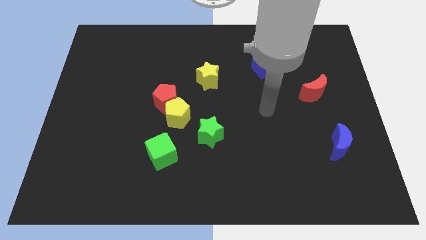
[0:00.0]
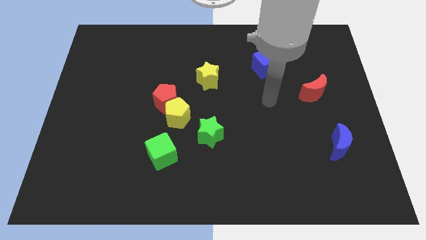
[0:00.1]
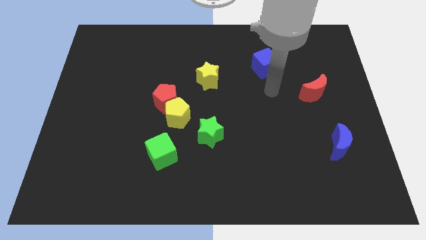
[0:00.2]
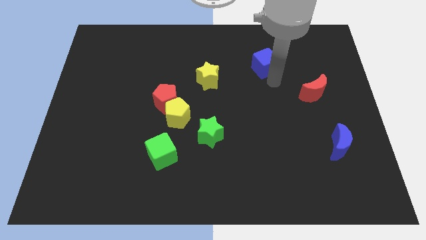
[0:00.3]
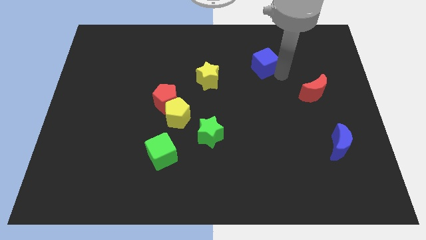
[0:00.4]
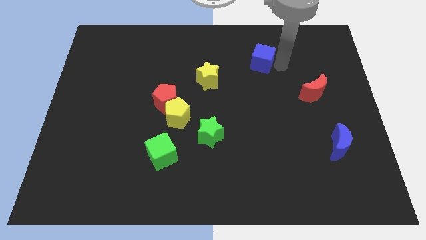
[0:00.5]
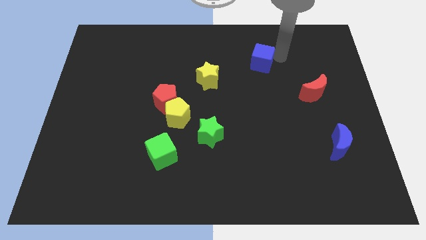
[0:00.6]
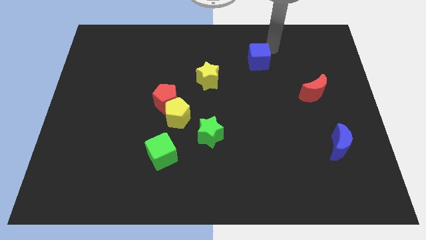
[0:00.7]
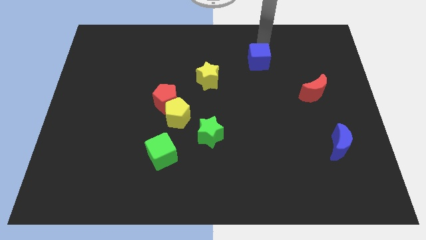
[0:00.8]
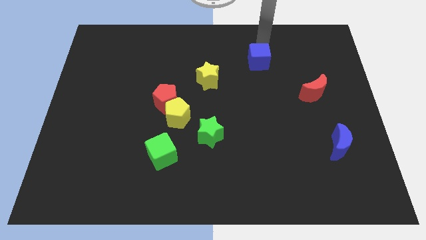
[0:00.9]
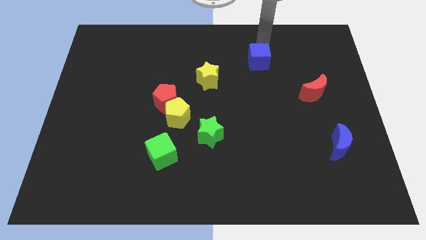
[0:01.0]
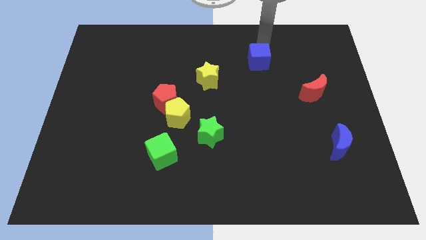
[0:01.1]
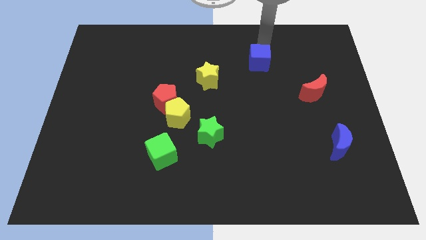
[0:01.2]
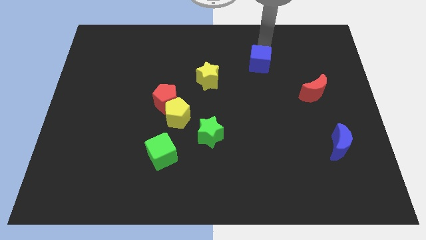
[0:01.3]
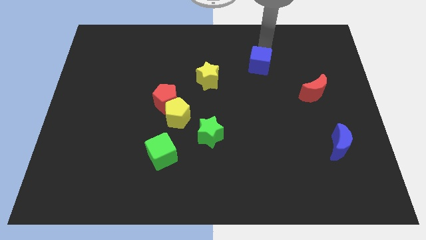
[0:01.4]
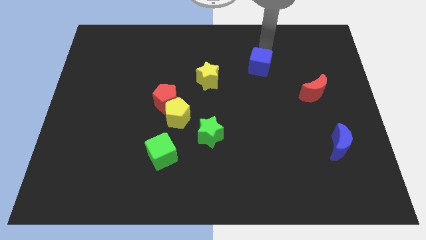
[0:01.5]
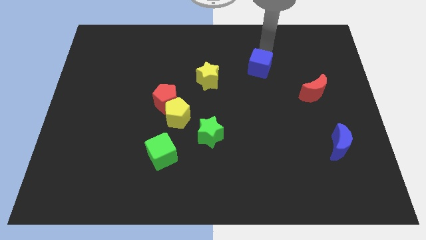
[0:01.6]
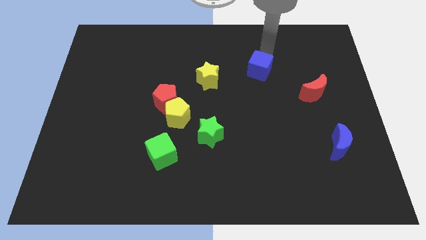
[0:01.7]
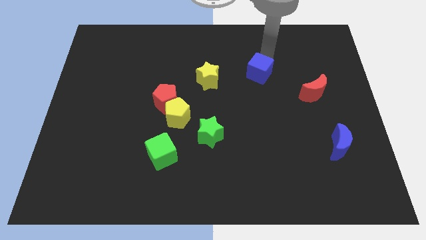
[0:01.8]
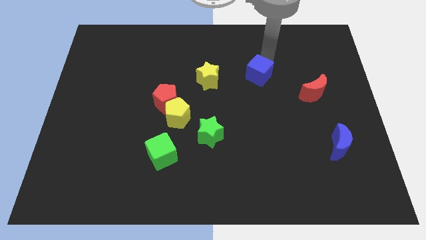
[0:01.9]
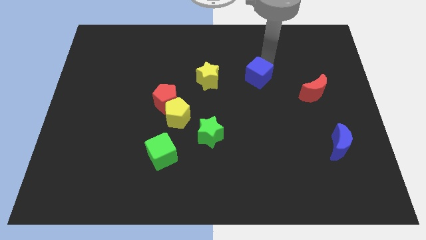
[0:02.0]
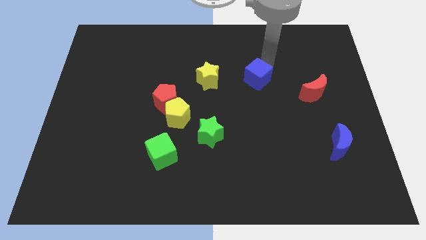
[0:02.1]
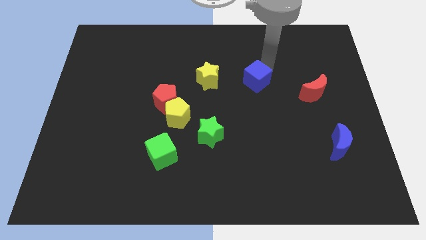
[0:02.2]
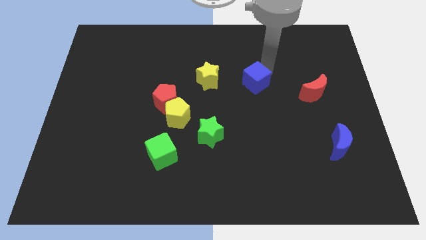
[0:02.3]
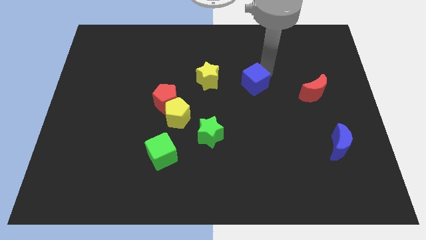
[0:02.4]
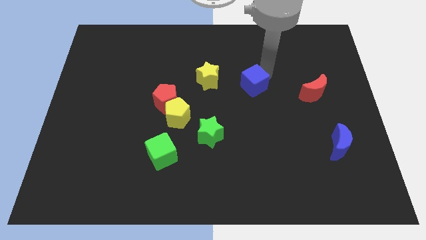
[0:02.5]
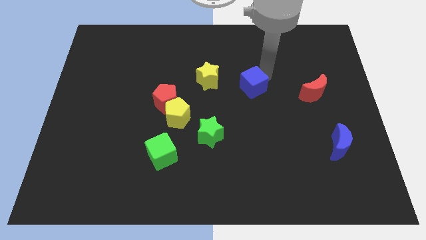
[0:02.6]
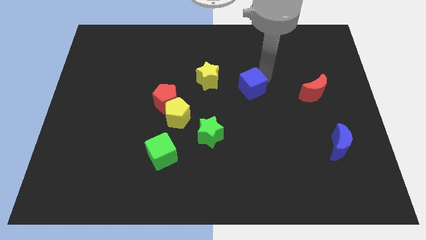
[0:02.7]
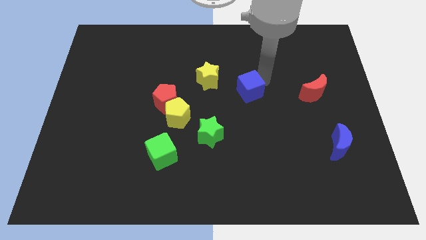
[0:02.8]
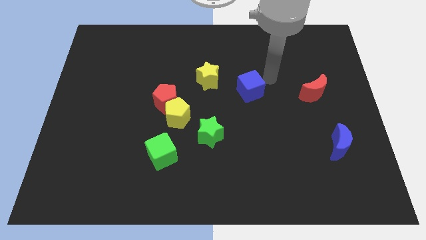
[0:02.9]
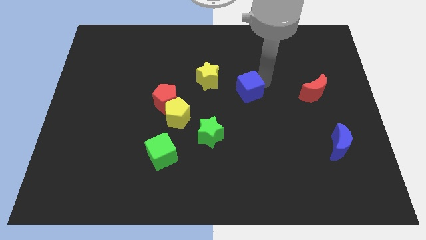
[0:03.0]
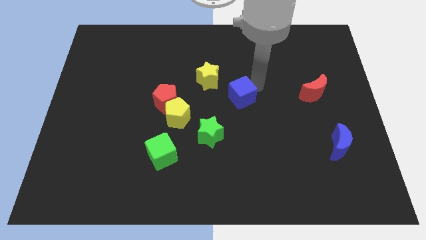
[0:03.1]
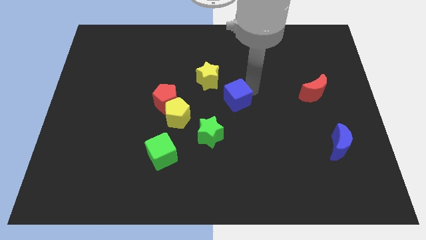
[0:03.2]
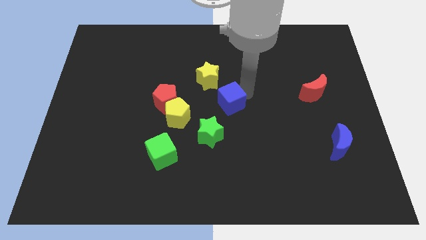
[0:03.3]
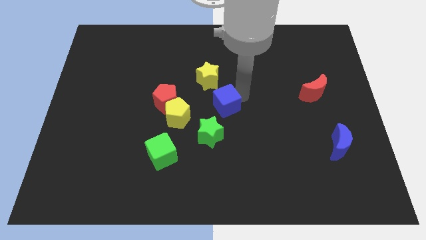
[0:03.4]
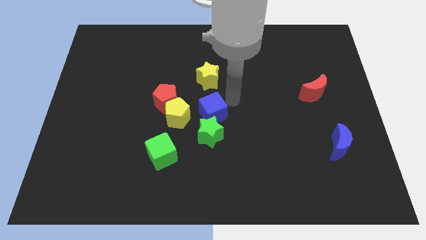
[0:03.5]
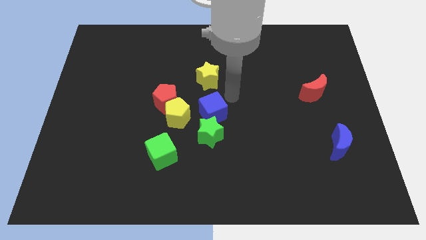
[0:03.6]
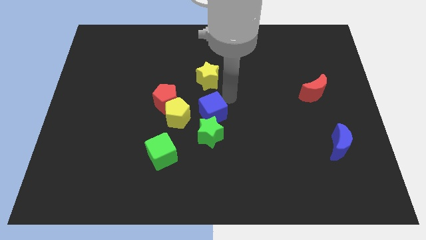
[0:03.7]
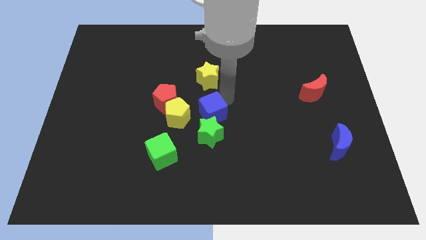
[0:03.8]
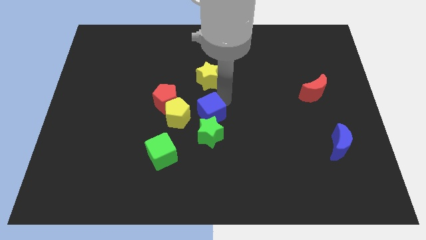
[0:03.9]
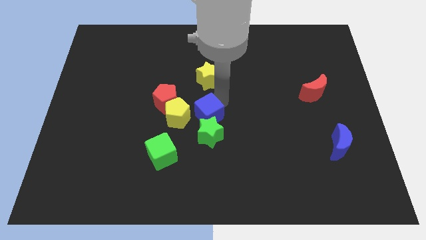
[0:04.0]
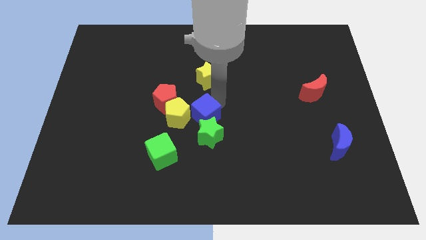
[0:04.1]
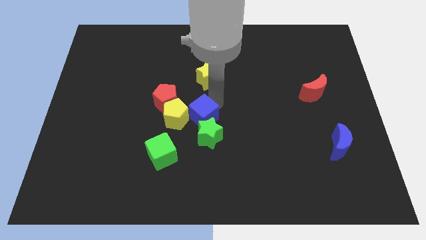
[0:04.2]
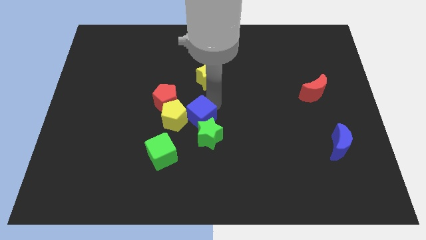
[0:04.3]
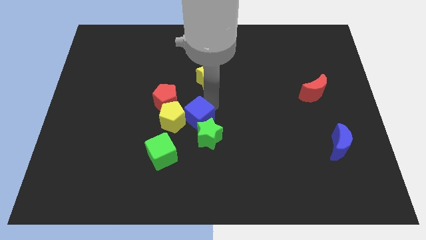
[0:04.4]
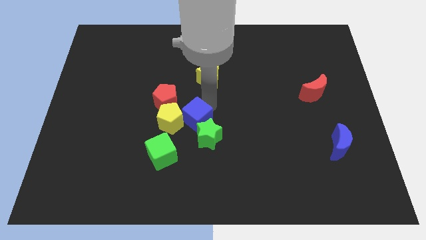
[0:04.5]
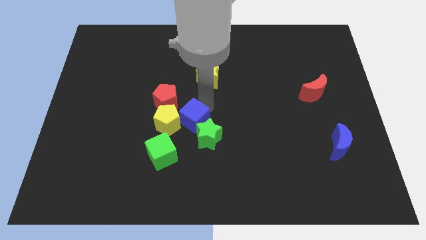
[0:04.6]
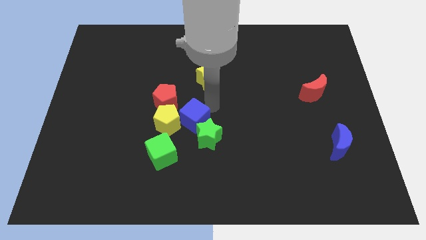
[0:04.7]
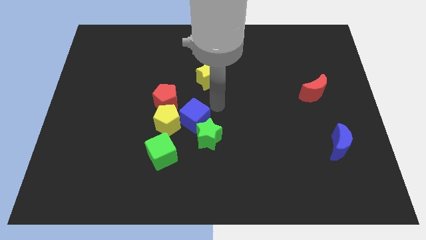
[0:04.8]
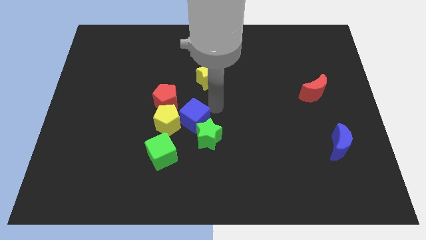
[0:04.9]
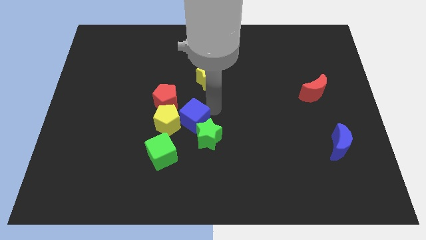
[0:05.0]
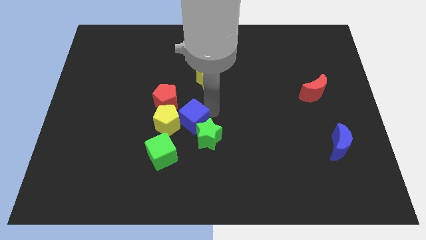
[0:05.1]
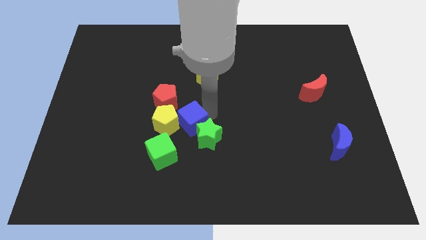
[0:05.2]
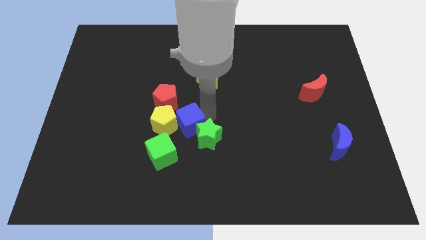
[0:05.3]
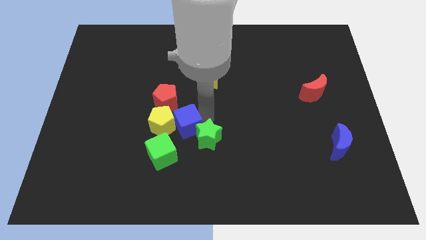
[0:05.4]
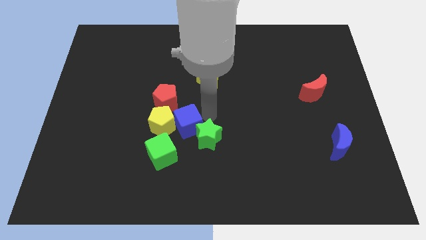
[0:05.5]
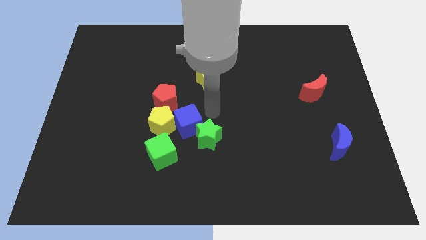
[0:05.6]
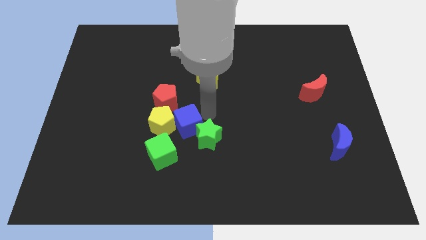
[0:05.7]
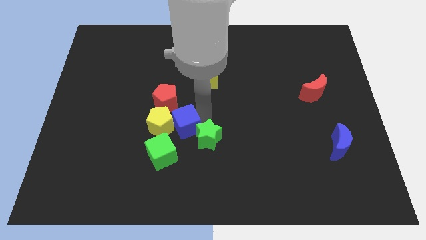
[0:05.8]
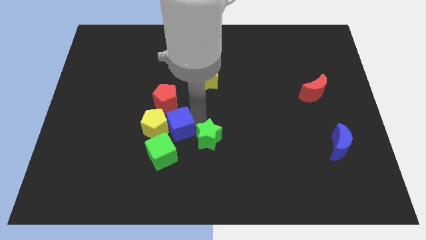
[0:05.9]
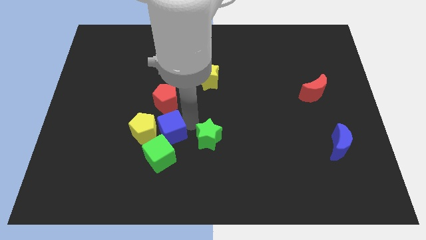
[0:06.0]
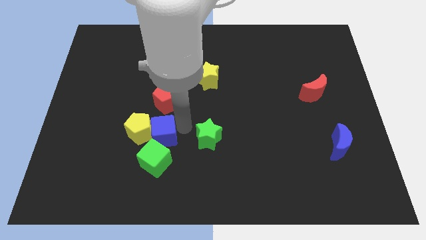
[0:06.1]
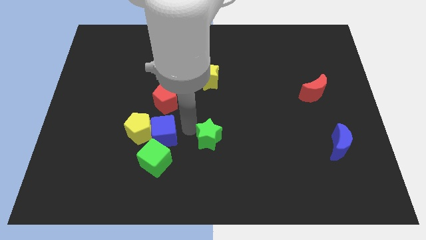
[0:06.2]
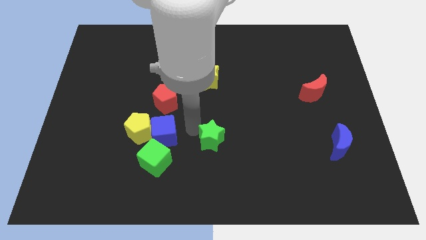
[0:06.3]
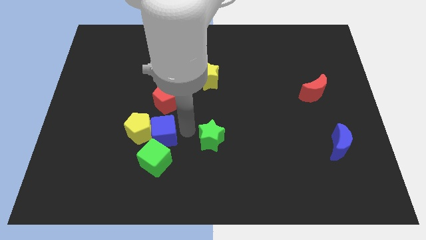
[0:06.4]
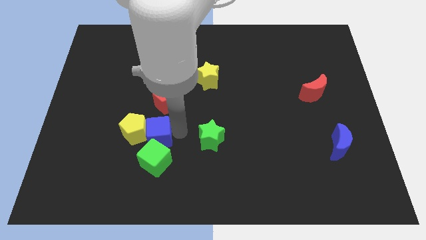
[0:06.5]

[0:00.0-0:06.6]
push the blue cube to the top left side of the green cube
